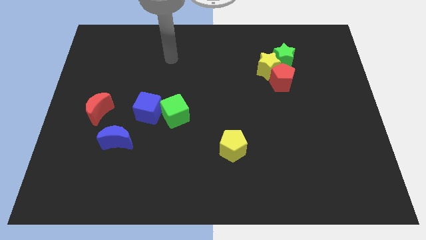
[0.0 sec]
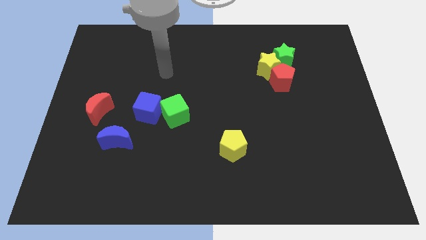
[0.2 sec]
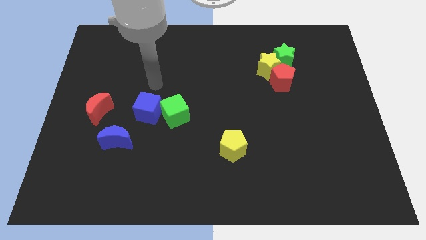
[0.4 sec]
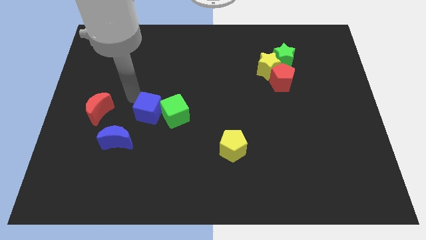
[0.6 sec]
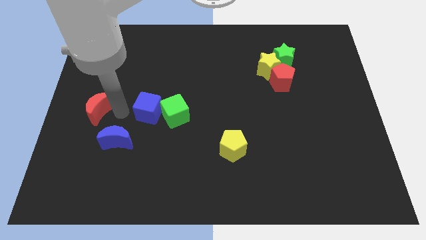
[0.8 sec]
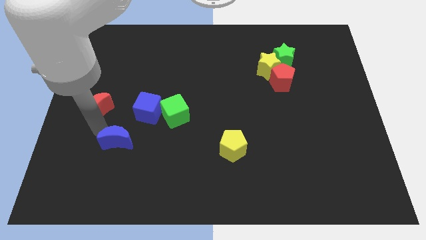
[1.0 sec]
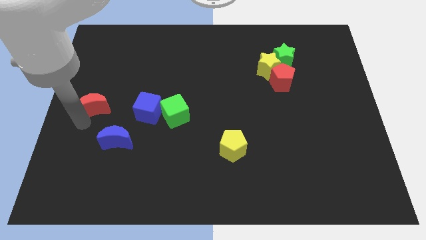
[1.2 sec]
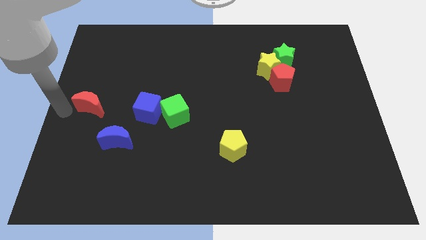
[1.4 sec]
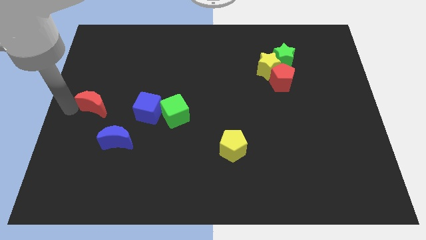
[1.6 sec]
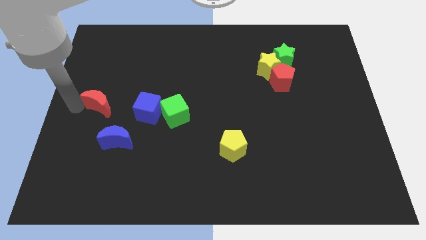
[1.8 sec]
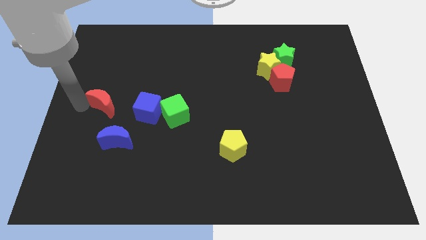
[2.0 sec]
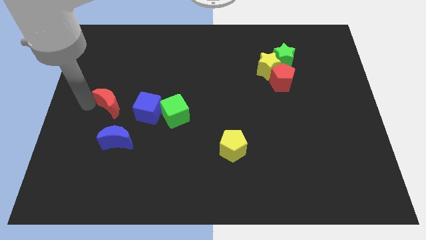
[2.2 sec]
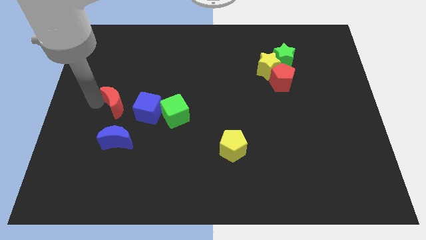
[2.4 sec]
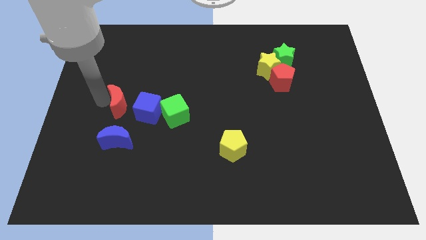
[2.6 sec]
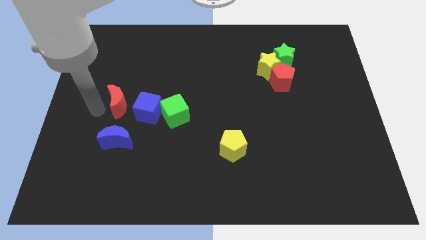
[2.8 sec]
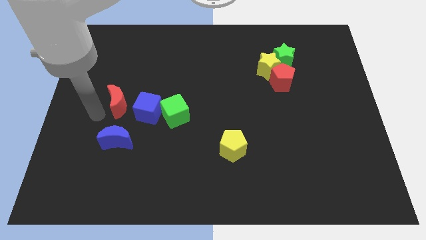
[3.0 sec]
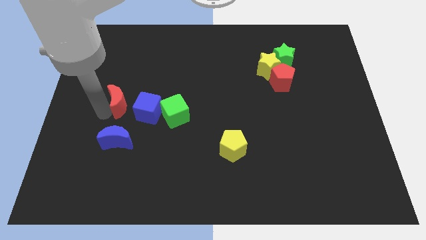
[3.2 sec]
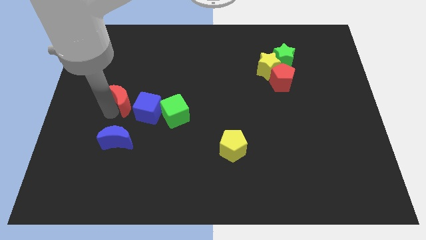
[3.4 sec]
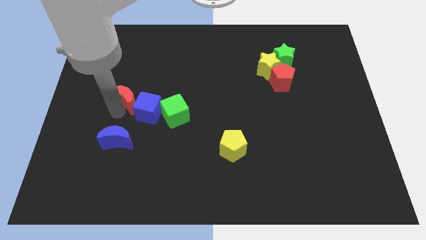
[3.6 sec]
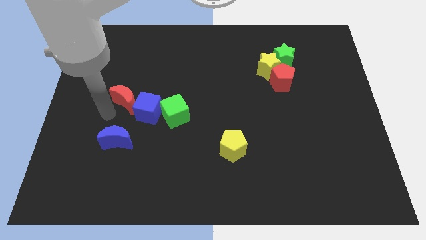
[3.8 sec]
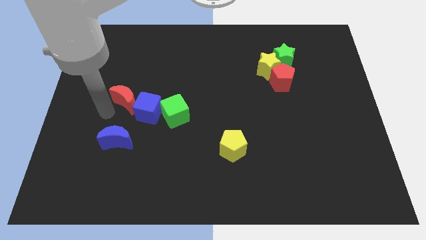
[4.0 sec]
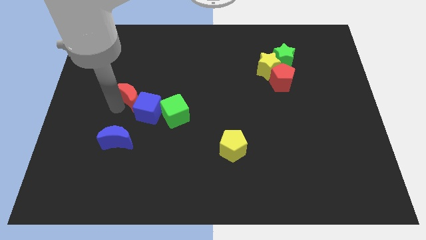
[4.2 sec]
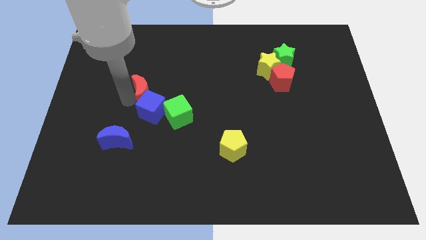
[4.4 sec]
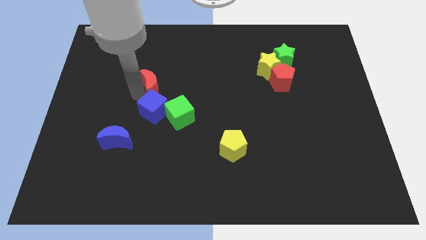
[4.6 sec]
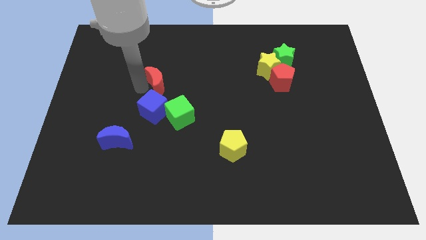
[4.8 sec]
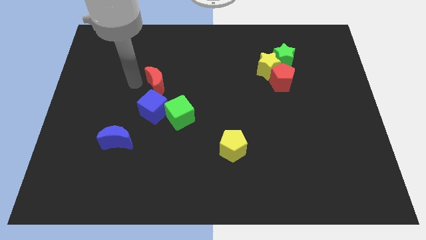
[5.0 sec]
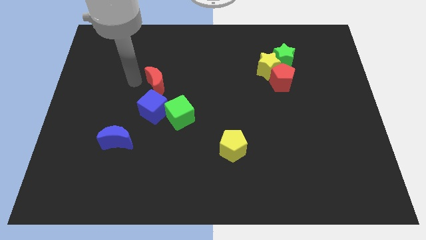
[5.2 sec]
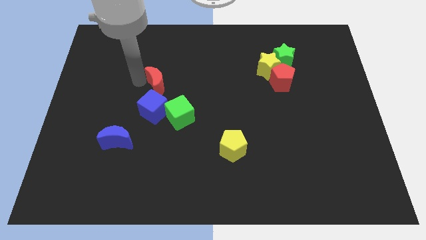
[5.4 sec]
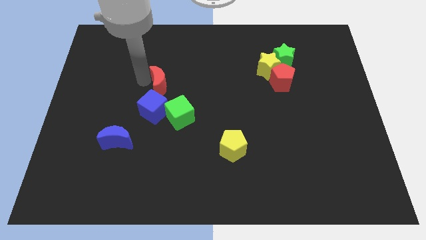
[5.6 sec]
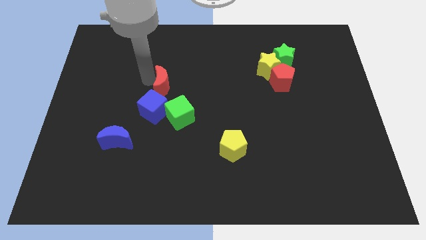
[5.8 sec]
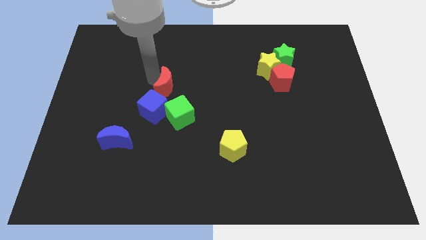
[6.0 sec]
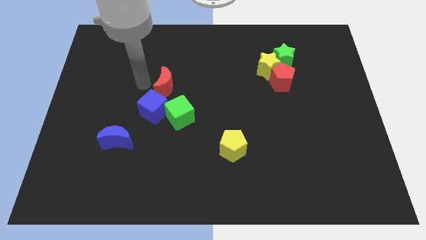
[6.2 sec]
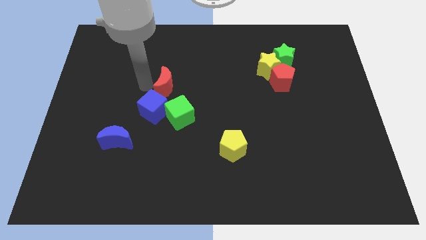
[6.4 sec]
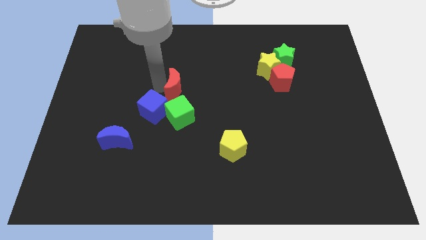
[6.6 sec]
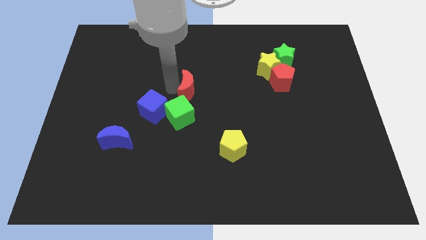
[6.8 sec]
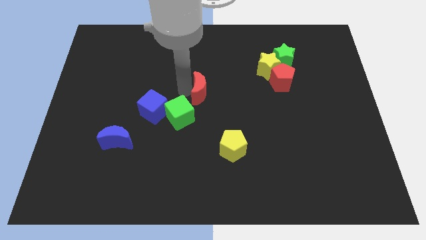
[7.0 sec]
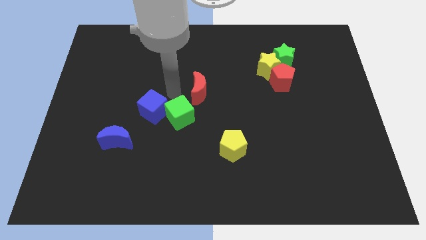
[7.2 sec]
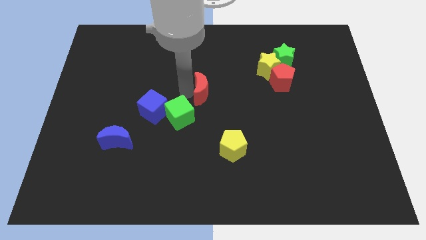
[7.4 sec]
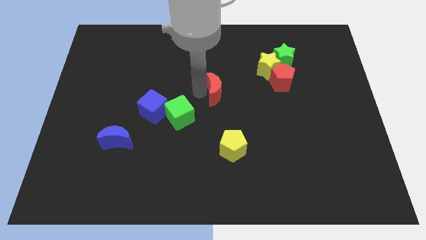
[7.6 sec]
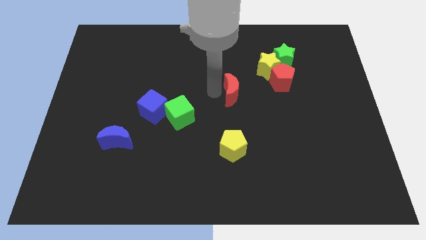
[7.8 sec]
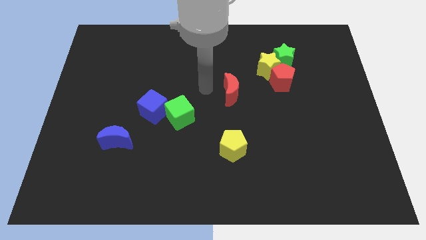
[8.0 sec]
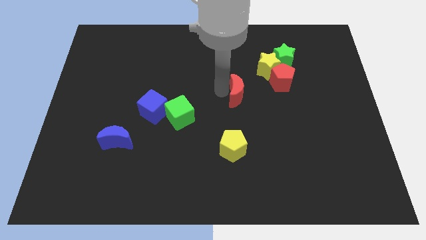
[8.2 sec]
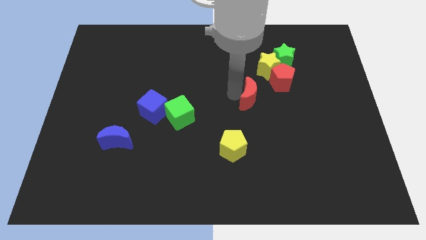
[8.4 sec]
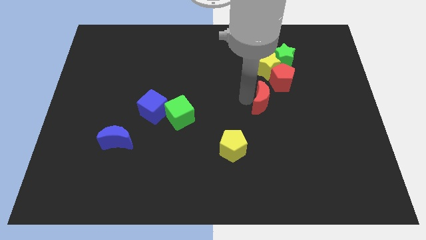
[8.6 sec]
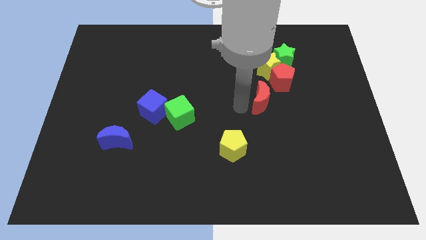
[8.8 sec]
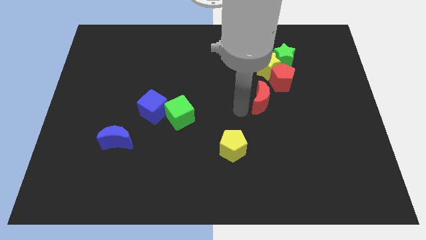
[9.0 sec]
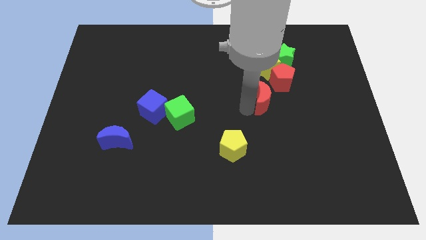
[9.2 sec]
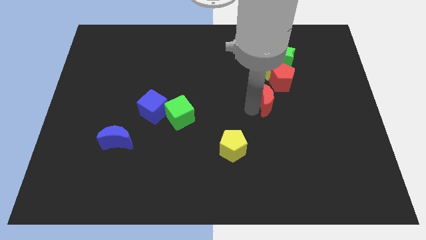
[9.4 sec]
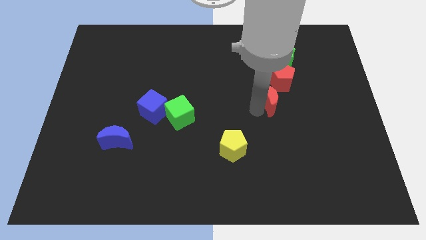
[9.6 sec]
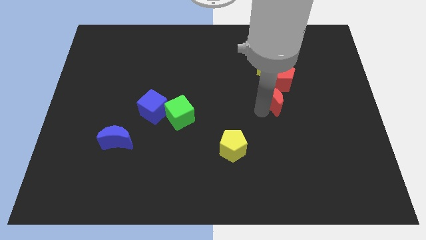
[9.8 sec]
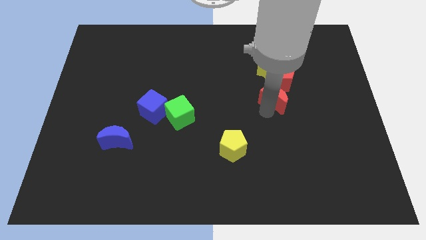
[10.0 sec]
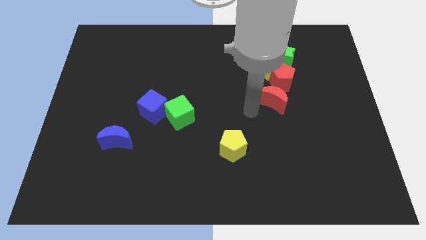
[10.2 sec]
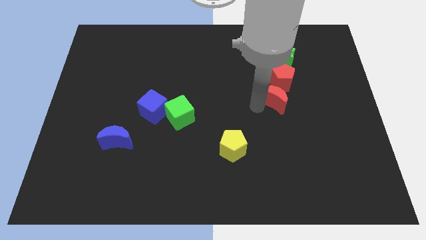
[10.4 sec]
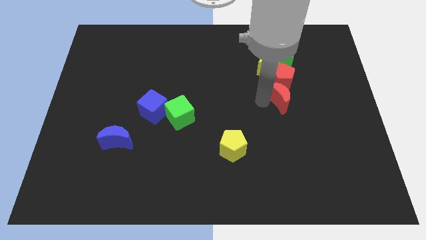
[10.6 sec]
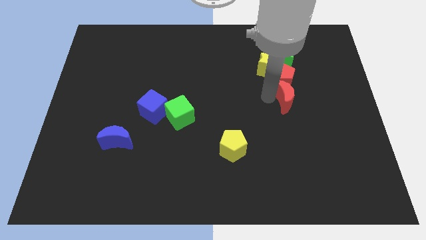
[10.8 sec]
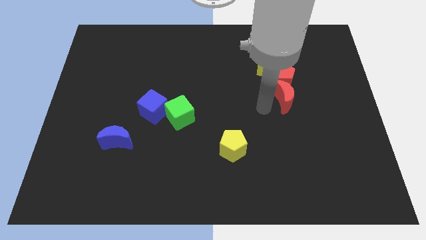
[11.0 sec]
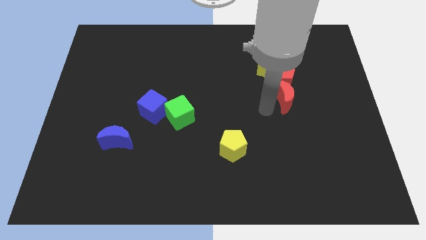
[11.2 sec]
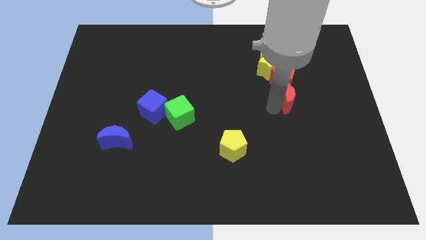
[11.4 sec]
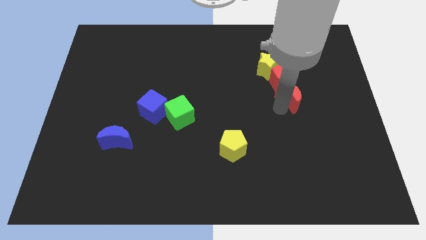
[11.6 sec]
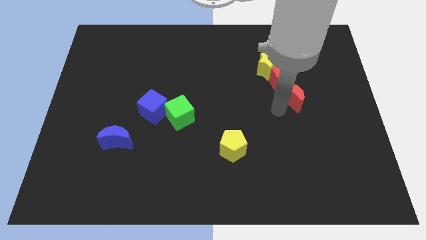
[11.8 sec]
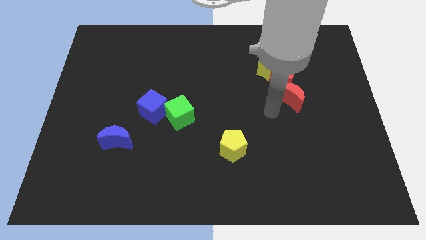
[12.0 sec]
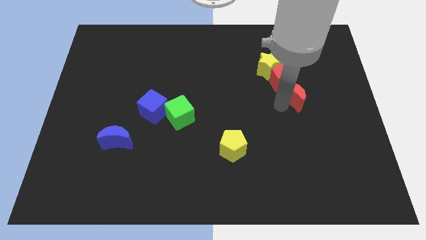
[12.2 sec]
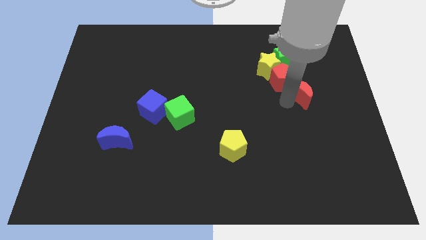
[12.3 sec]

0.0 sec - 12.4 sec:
slide the red moon right of the red pentagon

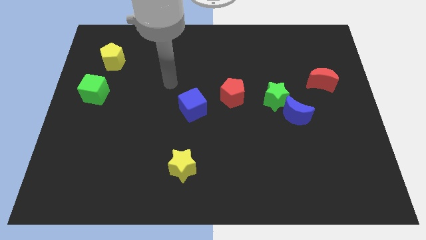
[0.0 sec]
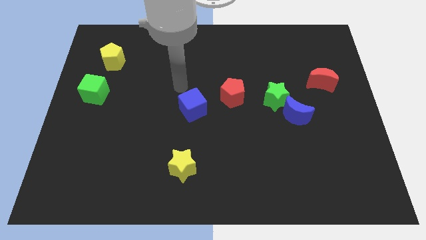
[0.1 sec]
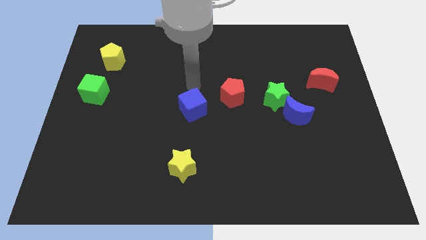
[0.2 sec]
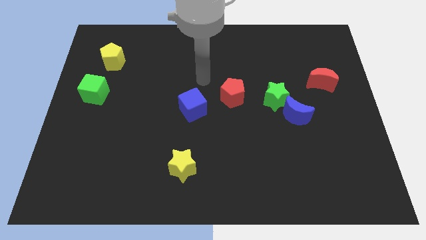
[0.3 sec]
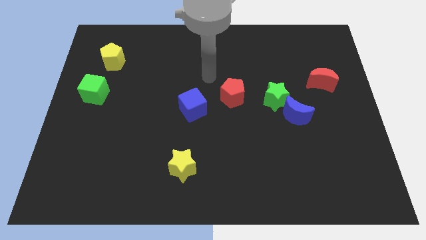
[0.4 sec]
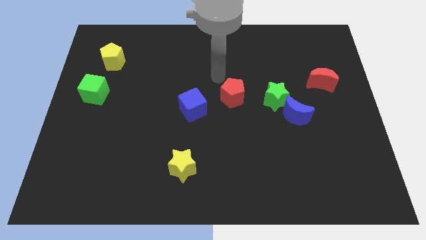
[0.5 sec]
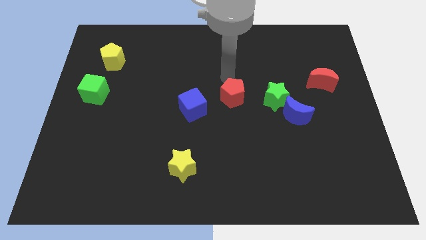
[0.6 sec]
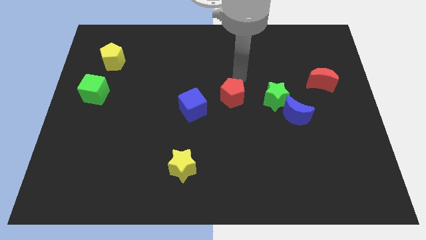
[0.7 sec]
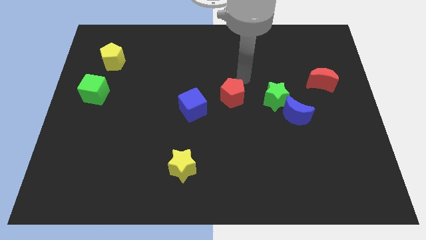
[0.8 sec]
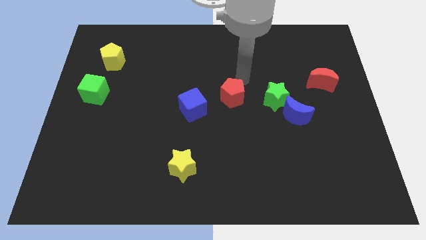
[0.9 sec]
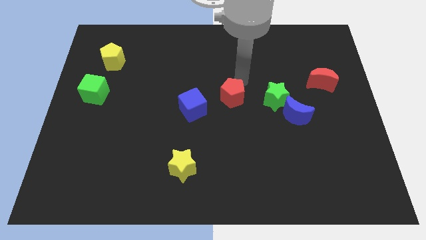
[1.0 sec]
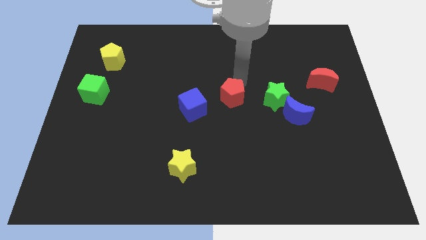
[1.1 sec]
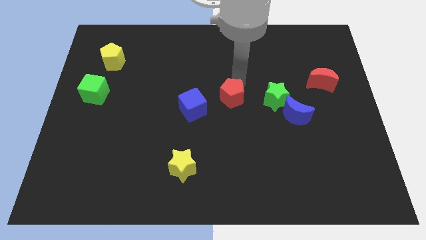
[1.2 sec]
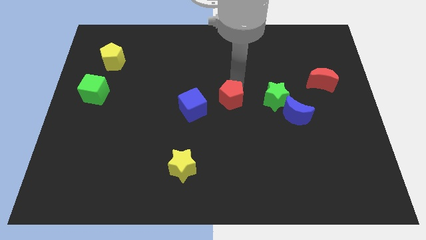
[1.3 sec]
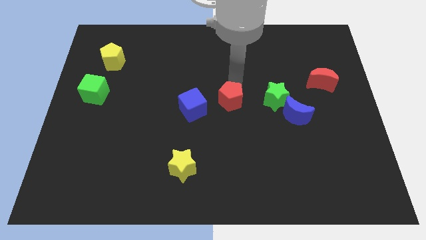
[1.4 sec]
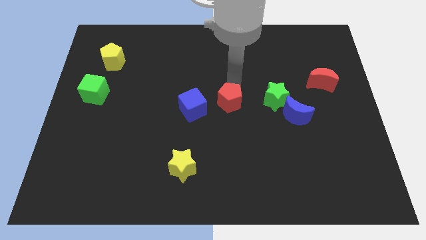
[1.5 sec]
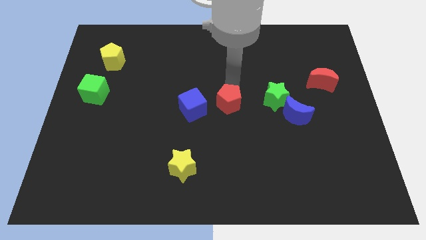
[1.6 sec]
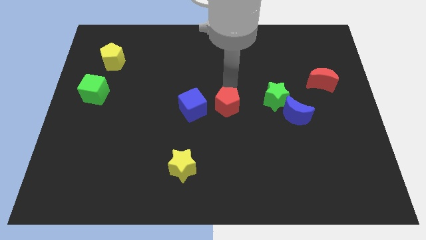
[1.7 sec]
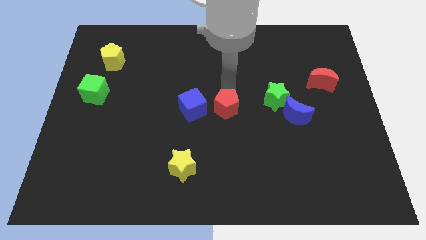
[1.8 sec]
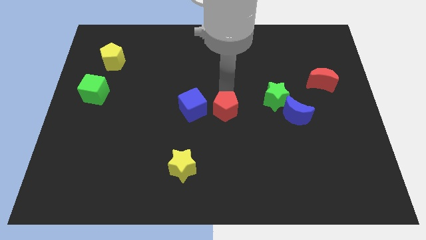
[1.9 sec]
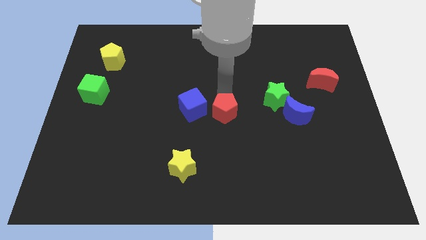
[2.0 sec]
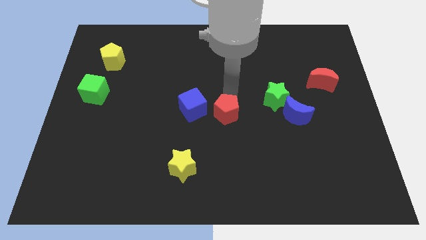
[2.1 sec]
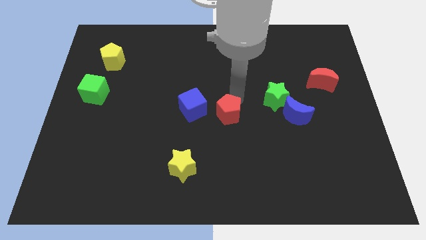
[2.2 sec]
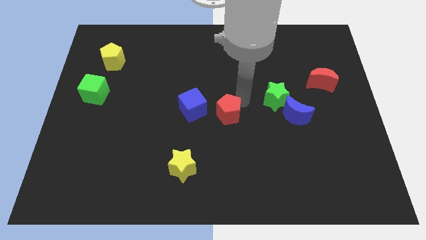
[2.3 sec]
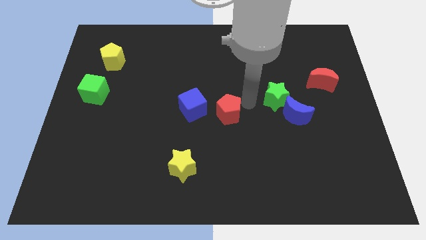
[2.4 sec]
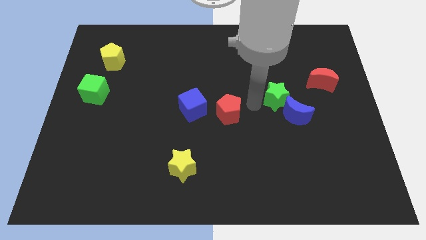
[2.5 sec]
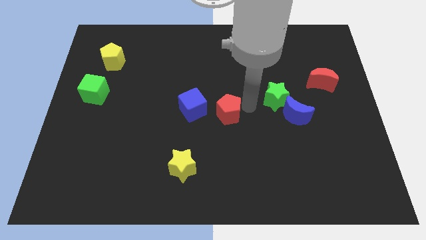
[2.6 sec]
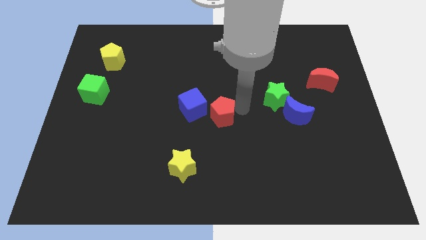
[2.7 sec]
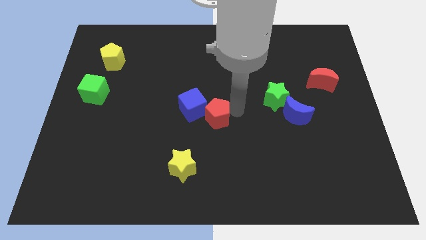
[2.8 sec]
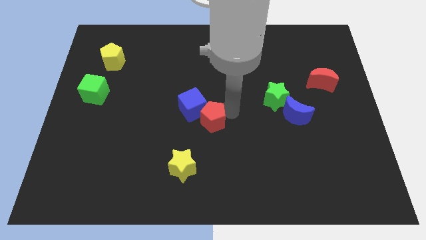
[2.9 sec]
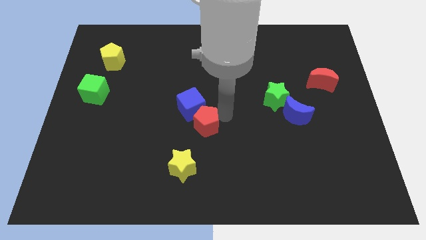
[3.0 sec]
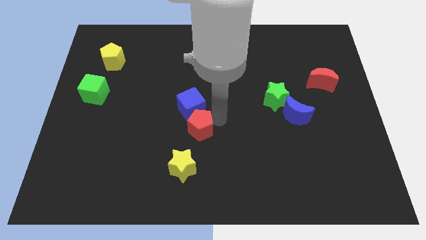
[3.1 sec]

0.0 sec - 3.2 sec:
put the red pentagon to the top of the yellow star
